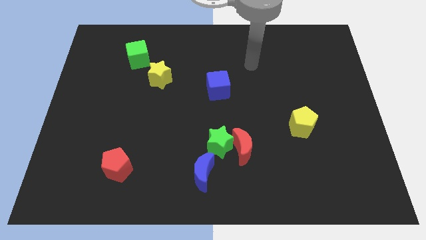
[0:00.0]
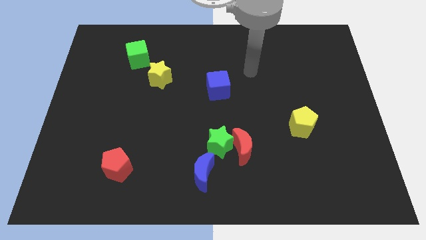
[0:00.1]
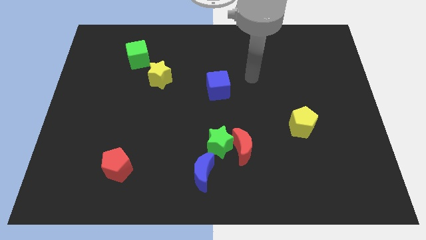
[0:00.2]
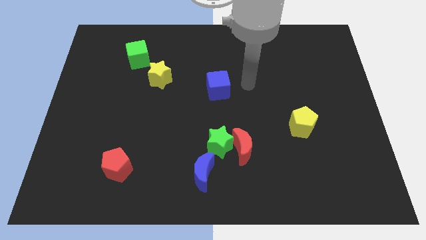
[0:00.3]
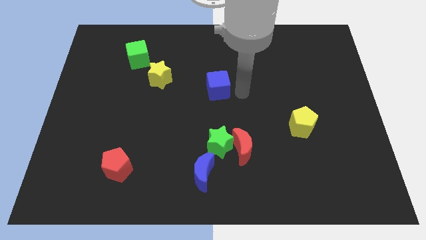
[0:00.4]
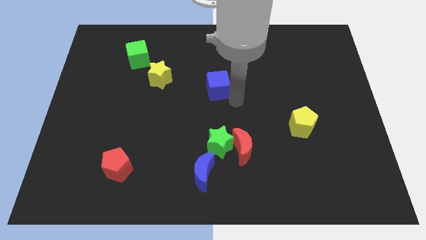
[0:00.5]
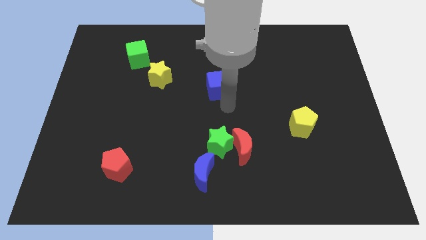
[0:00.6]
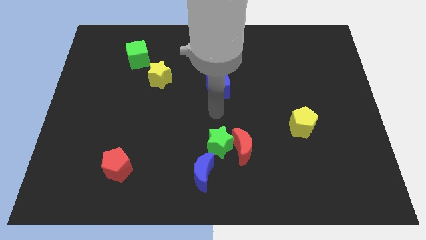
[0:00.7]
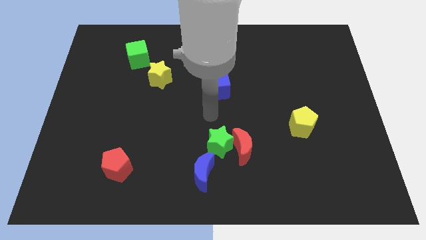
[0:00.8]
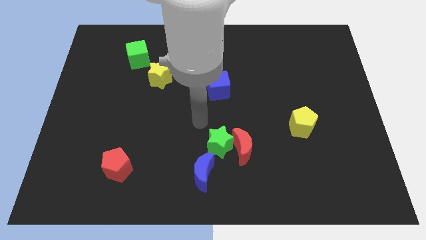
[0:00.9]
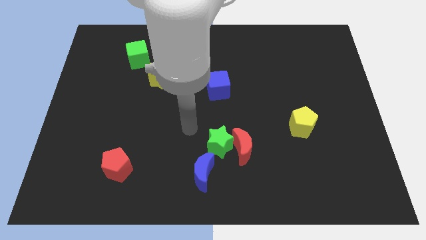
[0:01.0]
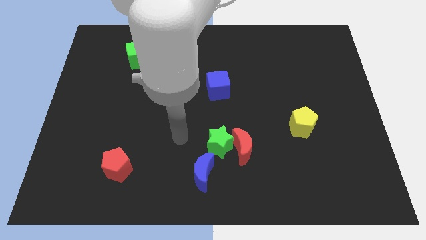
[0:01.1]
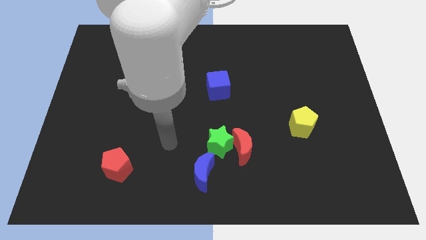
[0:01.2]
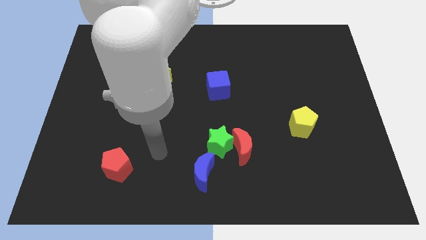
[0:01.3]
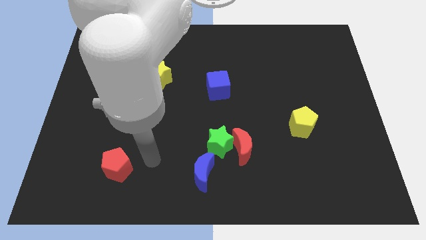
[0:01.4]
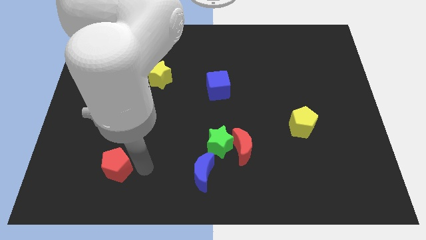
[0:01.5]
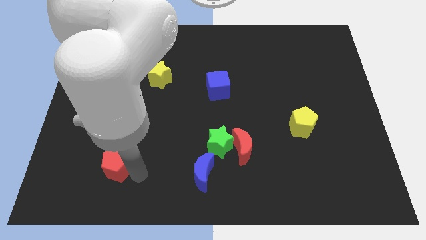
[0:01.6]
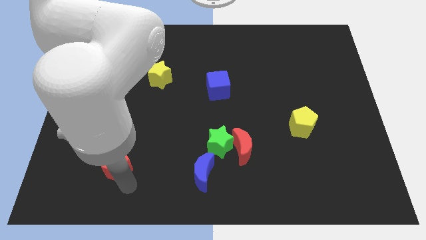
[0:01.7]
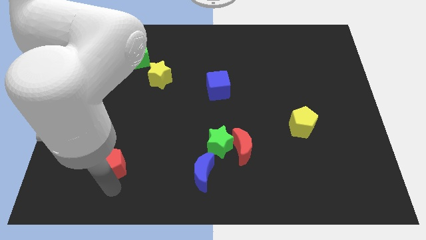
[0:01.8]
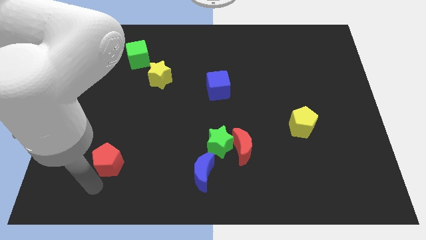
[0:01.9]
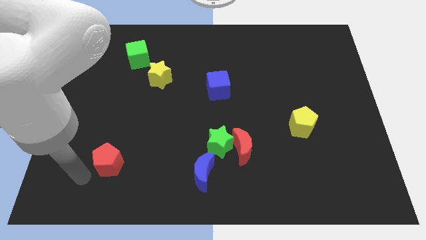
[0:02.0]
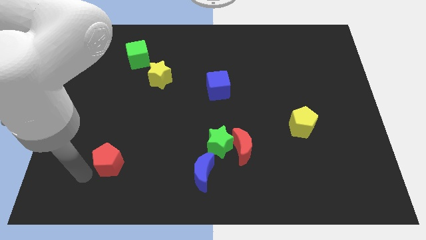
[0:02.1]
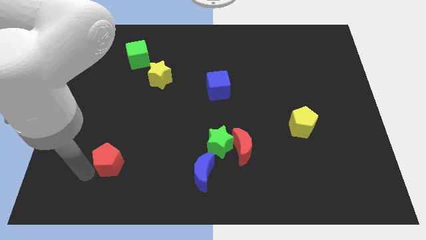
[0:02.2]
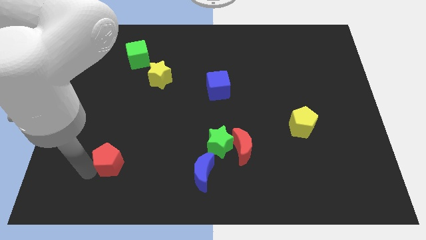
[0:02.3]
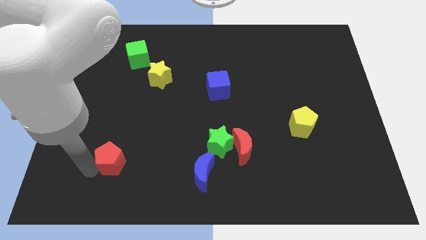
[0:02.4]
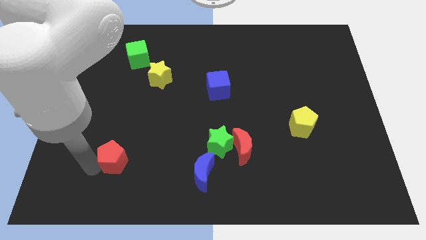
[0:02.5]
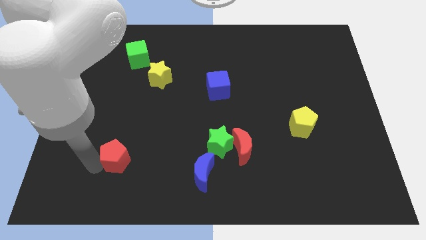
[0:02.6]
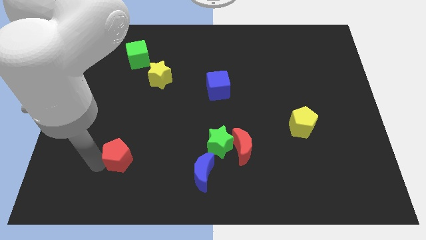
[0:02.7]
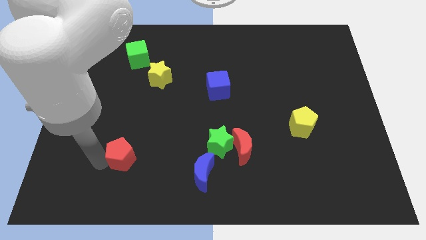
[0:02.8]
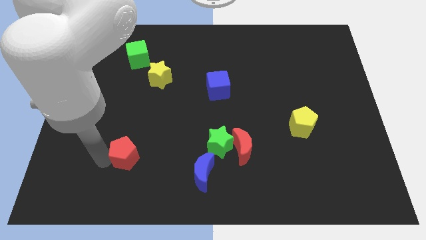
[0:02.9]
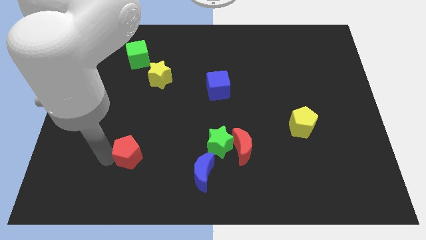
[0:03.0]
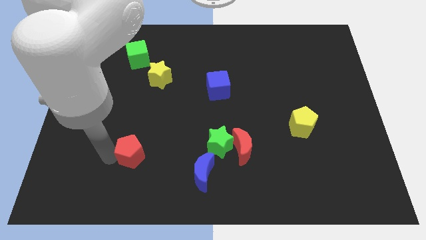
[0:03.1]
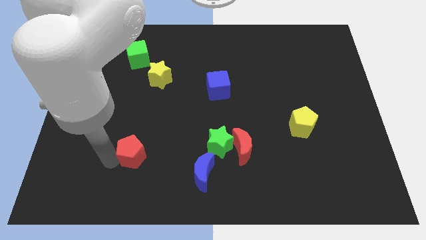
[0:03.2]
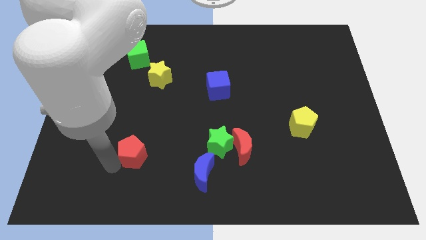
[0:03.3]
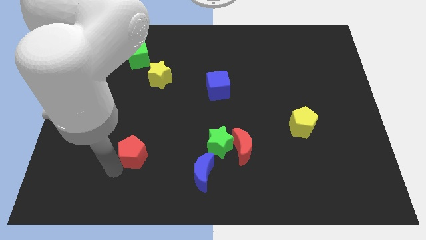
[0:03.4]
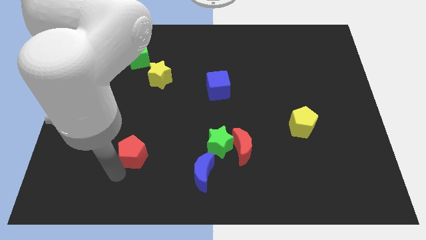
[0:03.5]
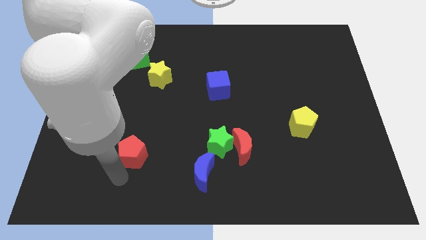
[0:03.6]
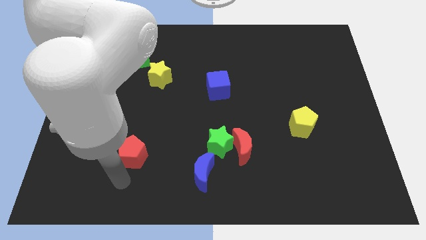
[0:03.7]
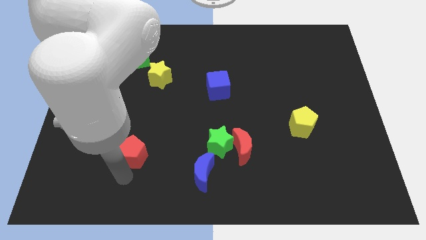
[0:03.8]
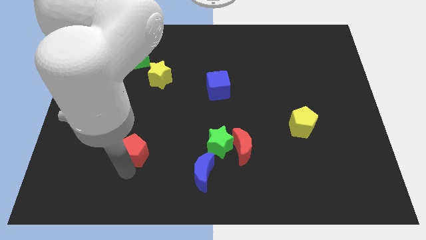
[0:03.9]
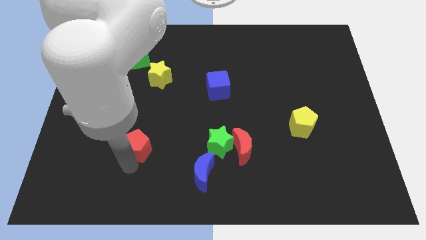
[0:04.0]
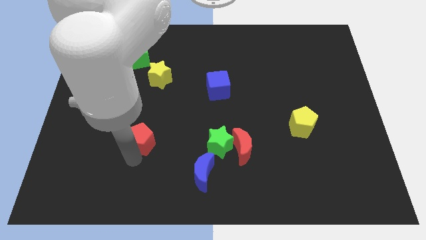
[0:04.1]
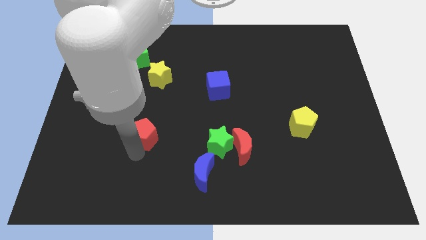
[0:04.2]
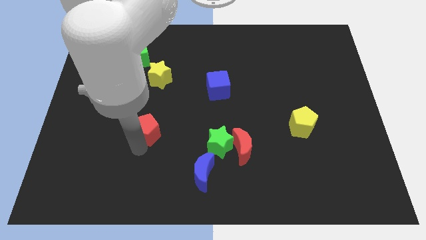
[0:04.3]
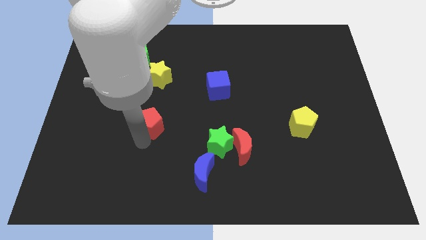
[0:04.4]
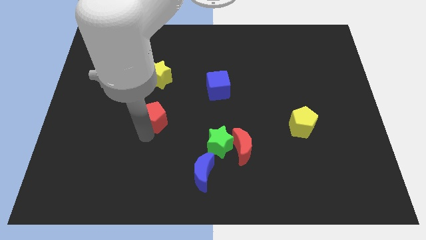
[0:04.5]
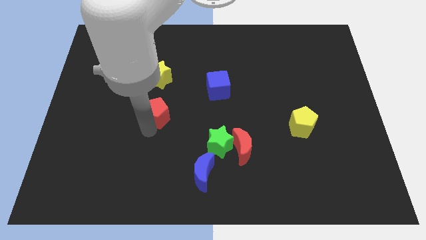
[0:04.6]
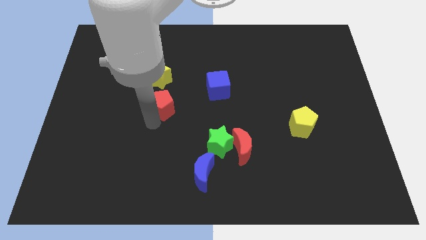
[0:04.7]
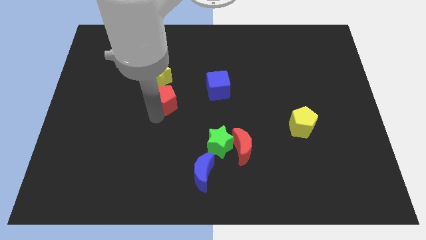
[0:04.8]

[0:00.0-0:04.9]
put the red pentagon to the bottom right side of the yellow star

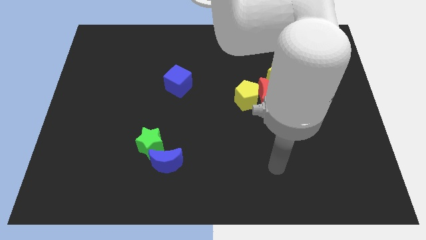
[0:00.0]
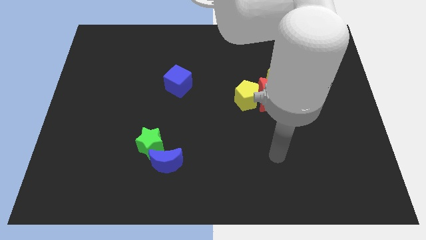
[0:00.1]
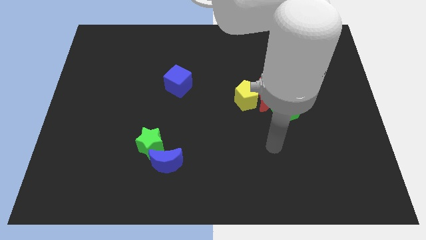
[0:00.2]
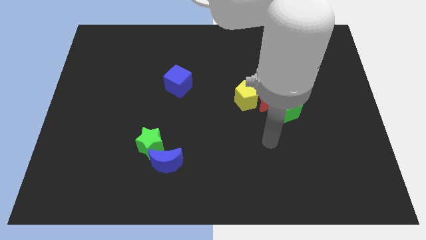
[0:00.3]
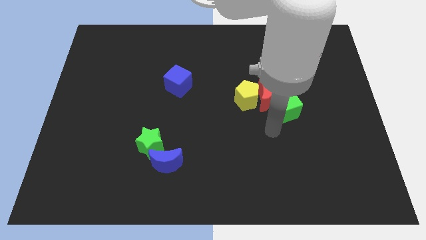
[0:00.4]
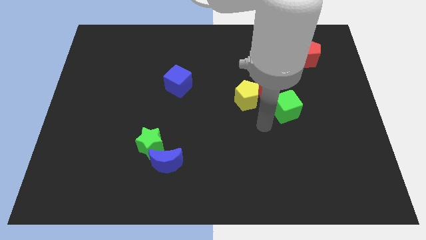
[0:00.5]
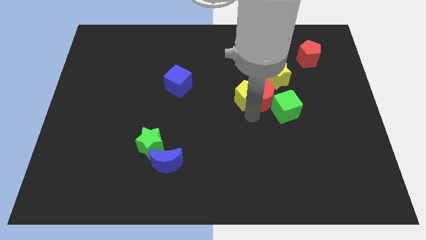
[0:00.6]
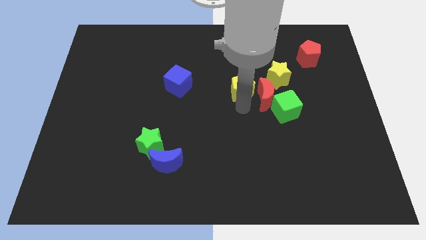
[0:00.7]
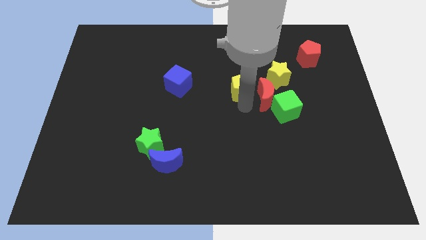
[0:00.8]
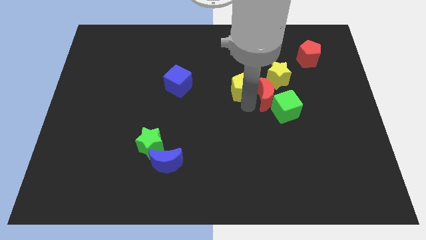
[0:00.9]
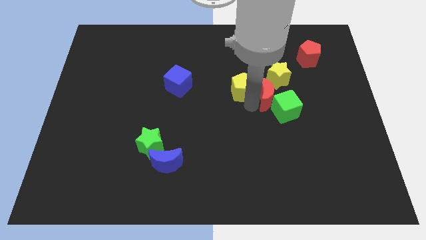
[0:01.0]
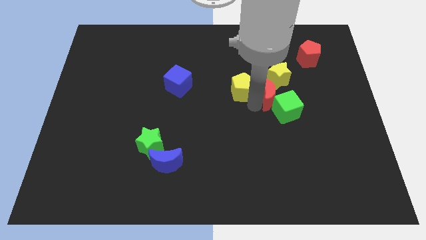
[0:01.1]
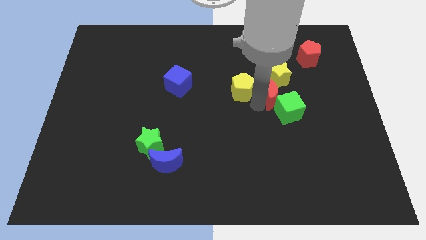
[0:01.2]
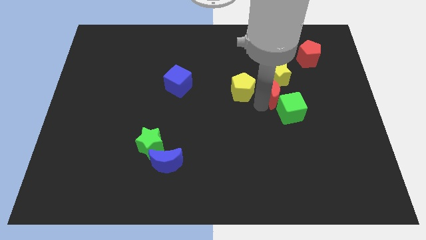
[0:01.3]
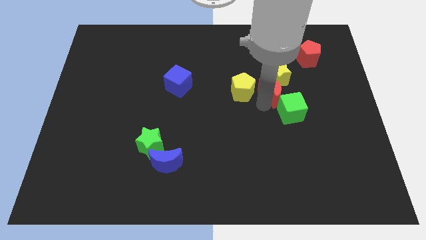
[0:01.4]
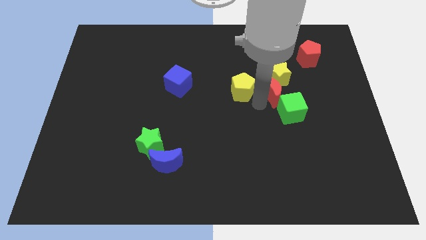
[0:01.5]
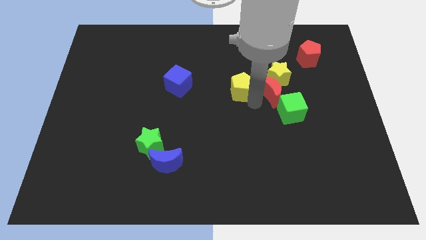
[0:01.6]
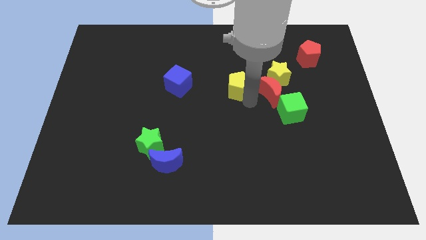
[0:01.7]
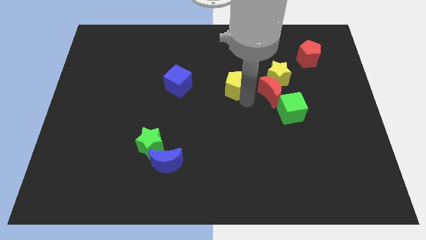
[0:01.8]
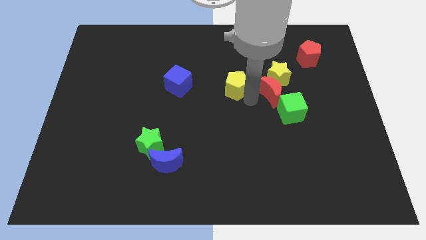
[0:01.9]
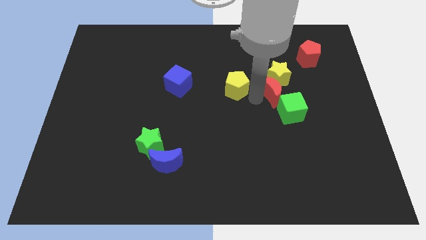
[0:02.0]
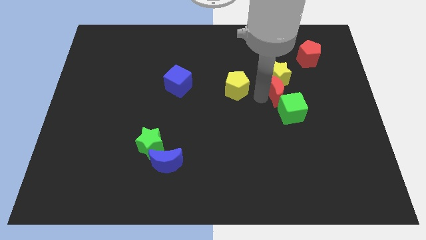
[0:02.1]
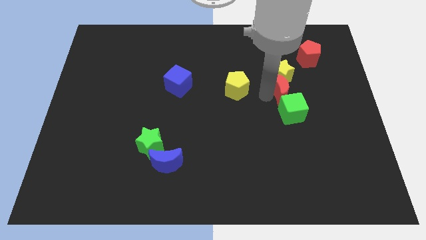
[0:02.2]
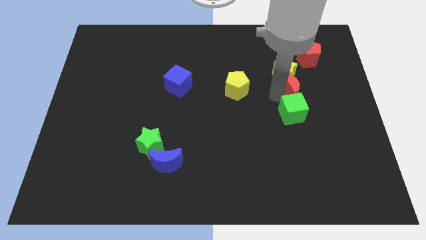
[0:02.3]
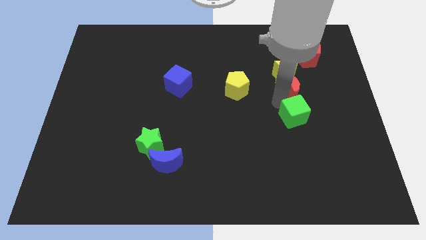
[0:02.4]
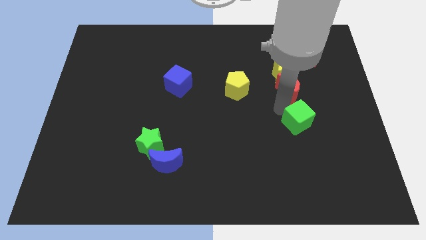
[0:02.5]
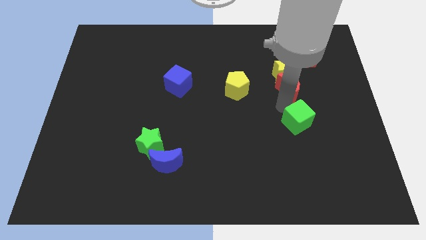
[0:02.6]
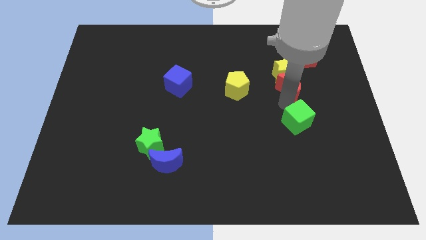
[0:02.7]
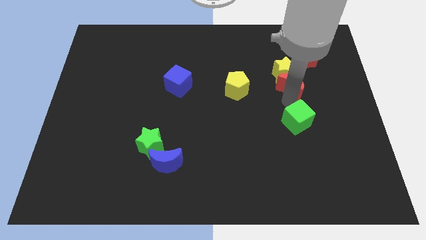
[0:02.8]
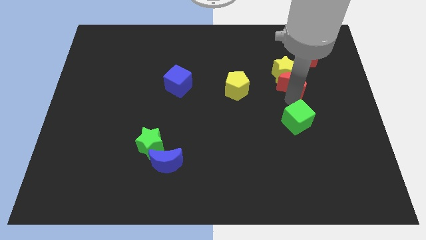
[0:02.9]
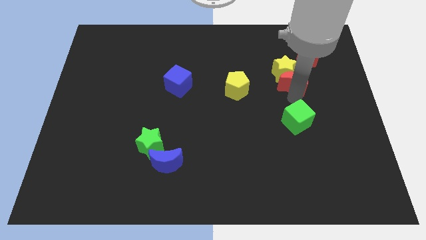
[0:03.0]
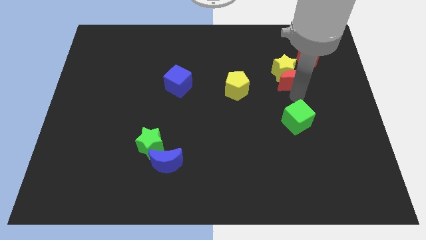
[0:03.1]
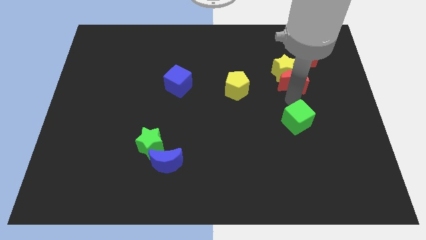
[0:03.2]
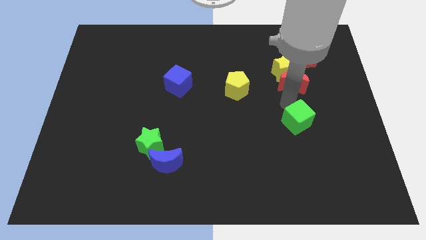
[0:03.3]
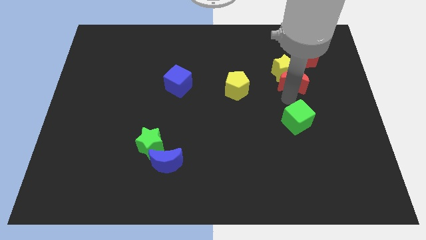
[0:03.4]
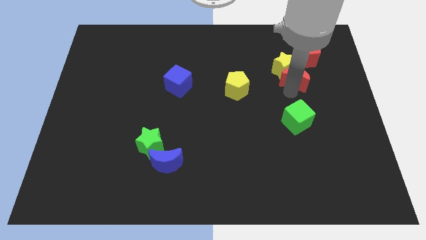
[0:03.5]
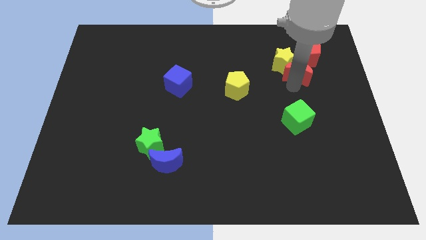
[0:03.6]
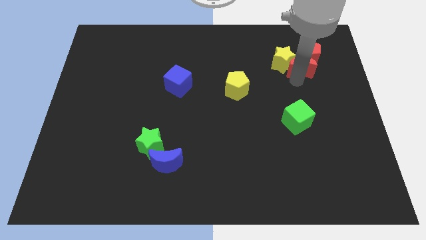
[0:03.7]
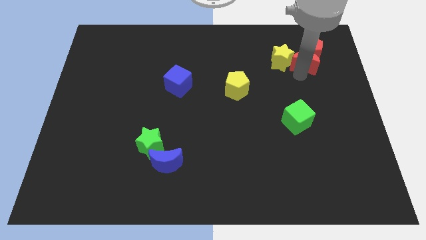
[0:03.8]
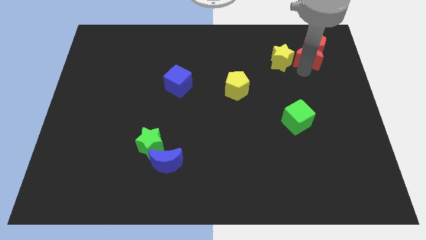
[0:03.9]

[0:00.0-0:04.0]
move the red moon to the top right of the yellow star
